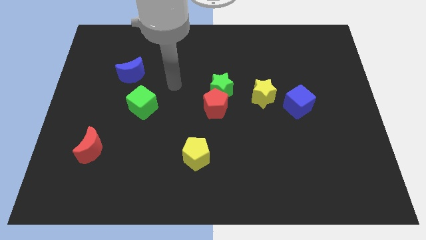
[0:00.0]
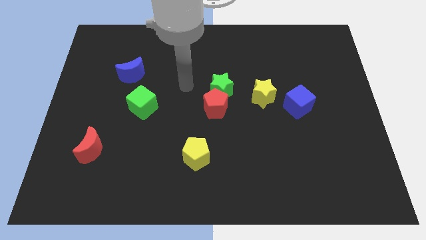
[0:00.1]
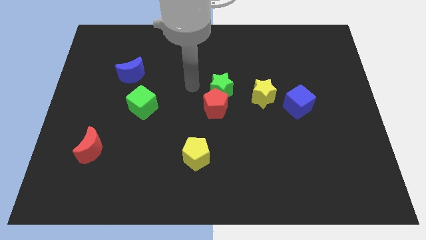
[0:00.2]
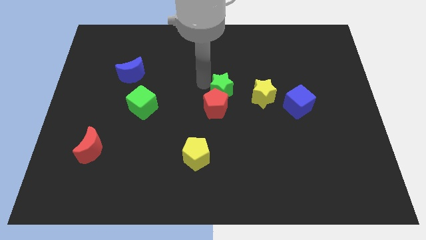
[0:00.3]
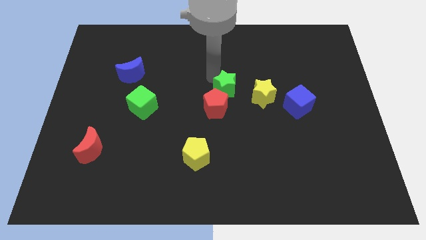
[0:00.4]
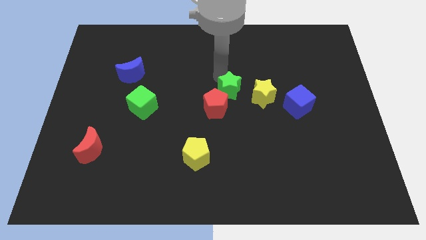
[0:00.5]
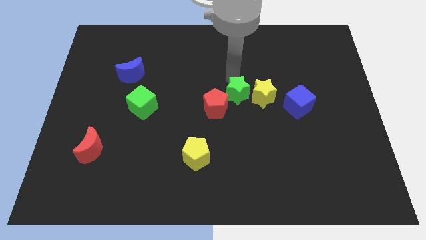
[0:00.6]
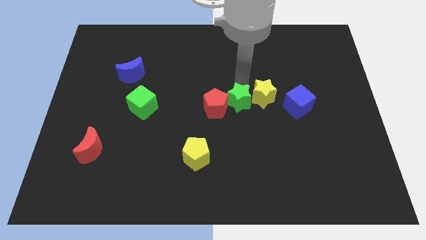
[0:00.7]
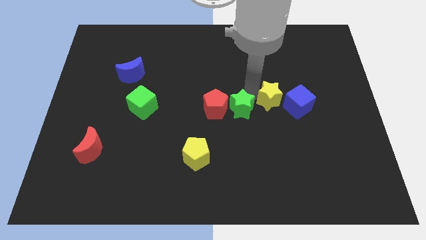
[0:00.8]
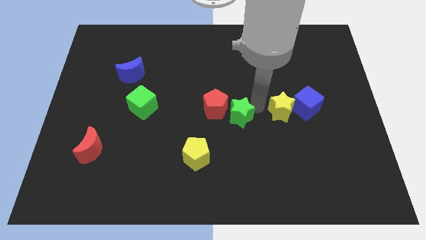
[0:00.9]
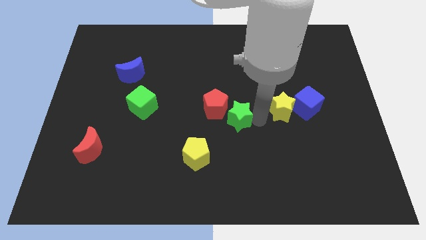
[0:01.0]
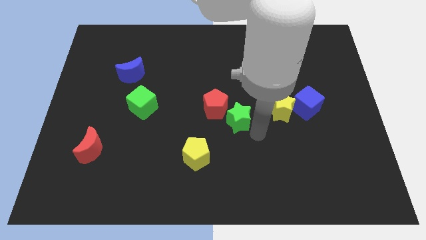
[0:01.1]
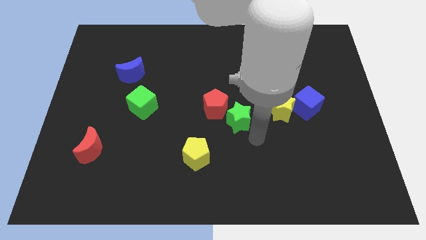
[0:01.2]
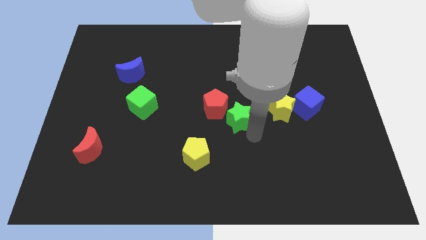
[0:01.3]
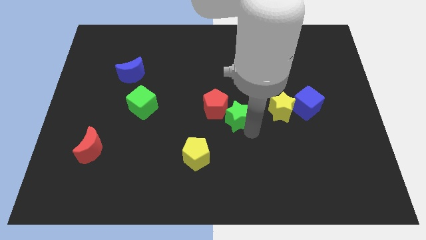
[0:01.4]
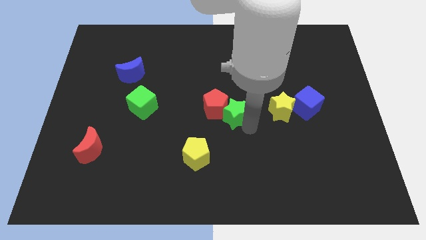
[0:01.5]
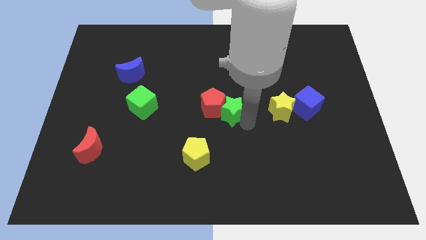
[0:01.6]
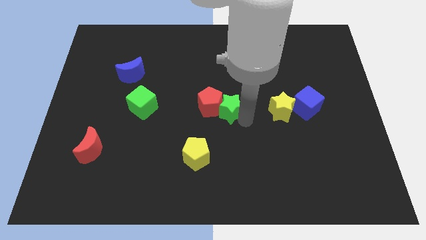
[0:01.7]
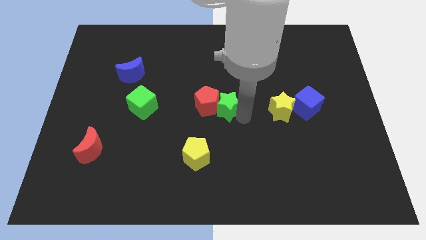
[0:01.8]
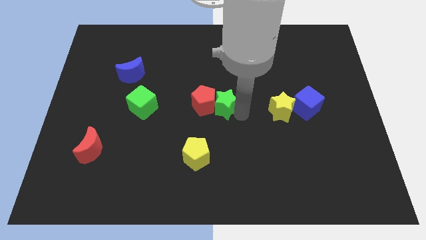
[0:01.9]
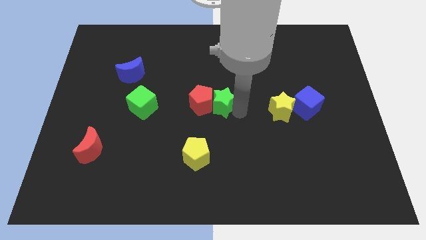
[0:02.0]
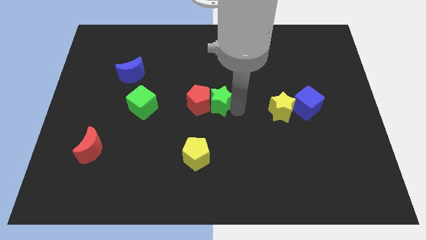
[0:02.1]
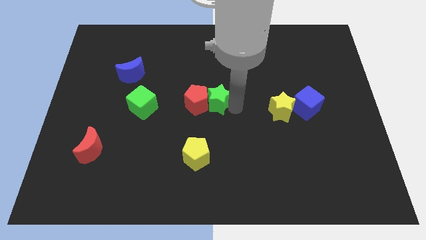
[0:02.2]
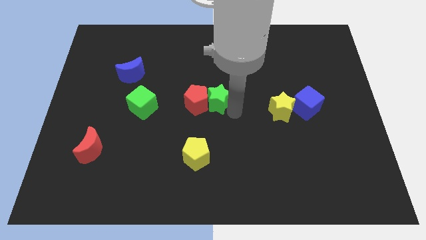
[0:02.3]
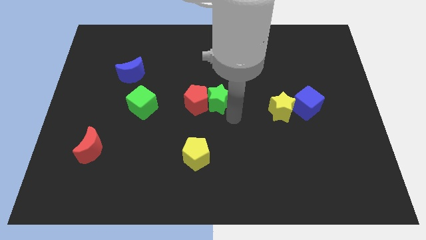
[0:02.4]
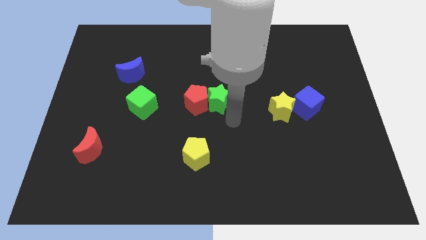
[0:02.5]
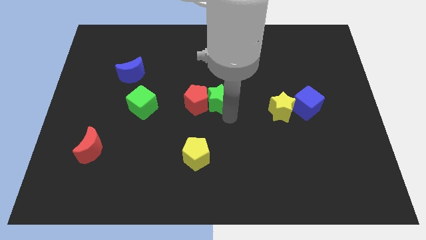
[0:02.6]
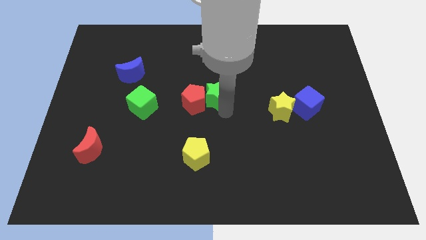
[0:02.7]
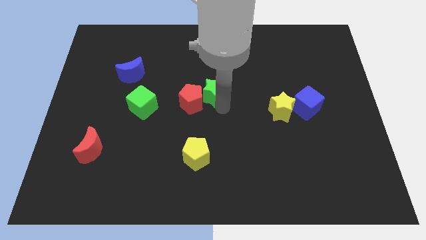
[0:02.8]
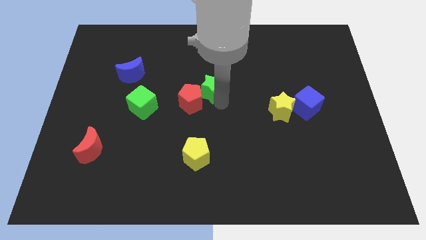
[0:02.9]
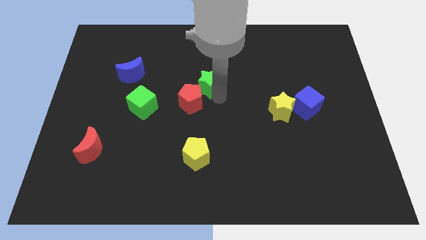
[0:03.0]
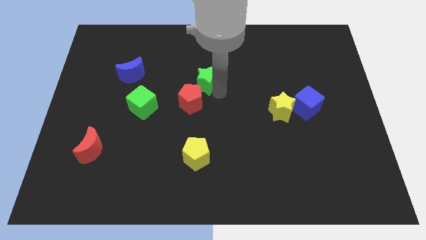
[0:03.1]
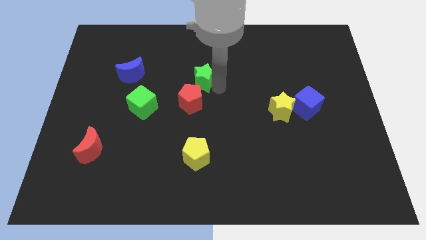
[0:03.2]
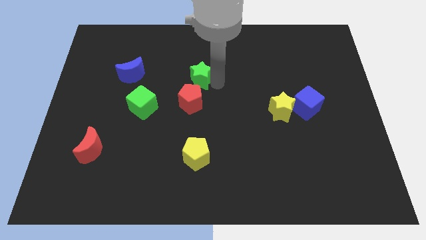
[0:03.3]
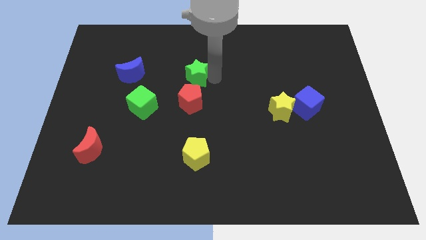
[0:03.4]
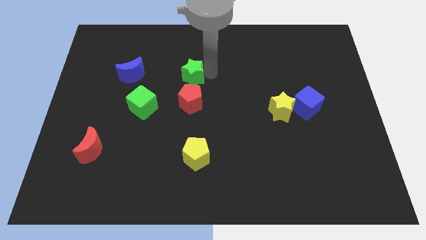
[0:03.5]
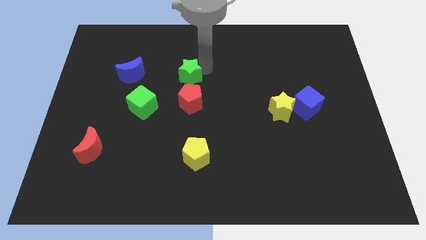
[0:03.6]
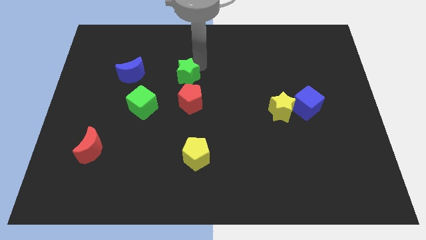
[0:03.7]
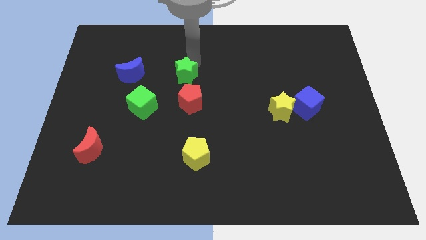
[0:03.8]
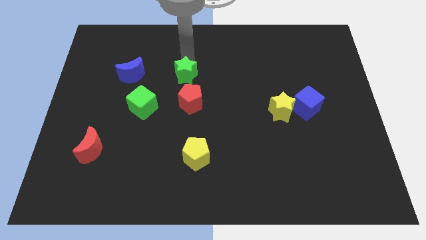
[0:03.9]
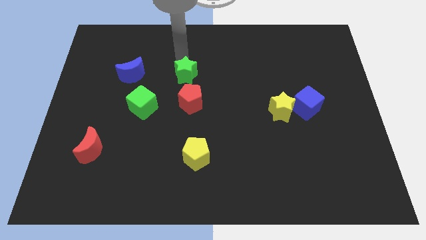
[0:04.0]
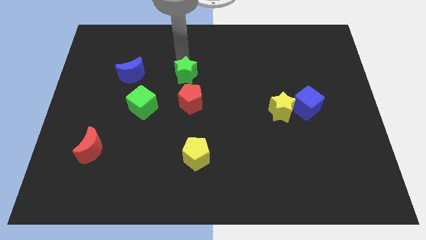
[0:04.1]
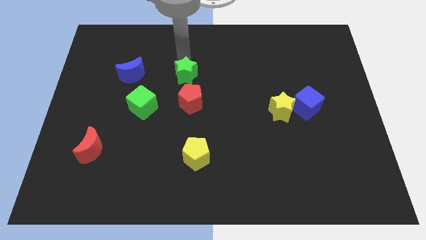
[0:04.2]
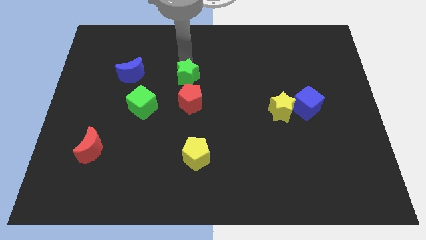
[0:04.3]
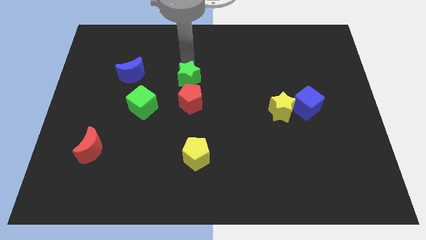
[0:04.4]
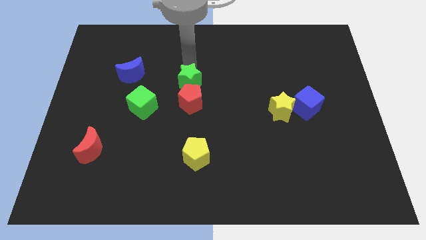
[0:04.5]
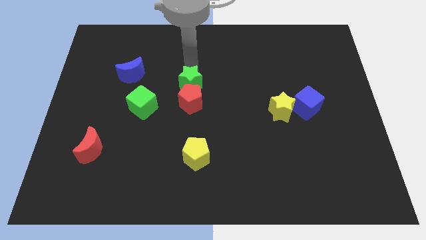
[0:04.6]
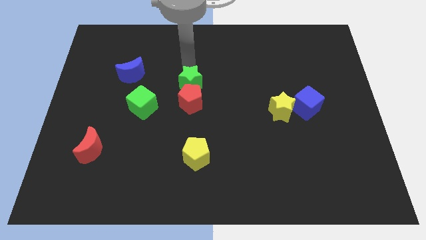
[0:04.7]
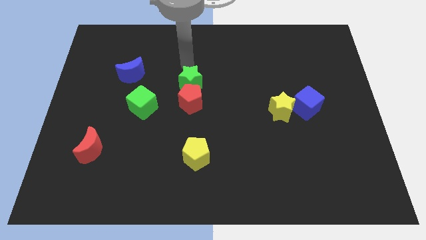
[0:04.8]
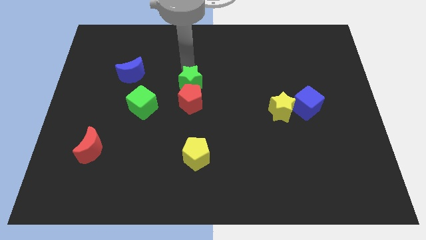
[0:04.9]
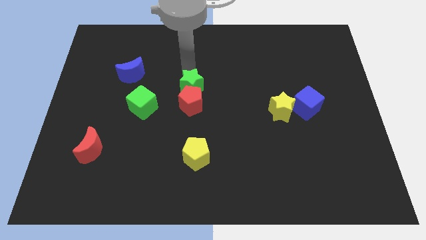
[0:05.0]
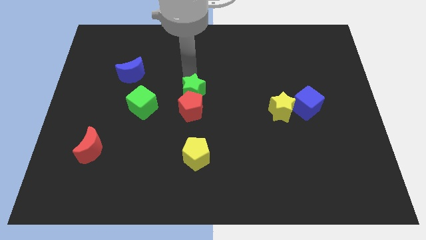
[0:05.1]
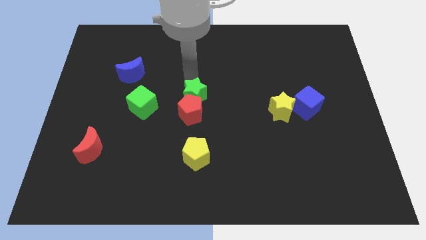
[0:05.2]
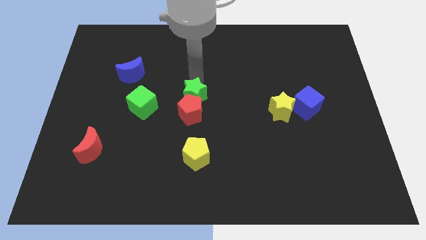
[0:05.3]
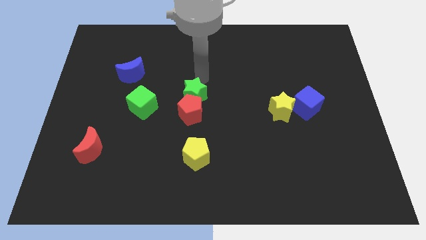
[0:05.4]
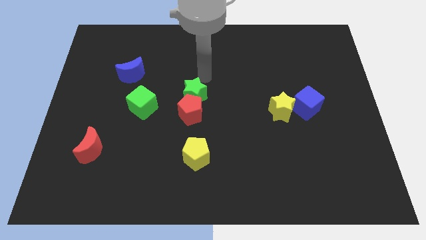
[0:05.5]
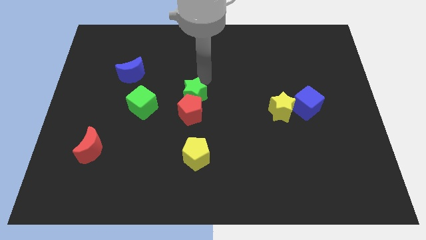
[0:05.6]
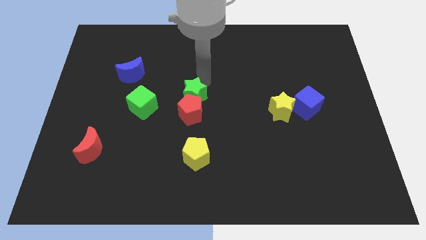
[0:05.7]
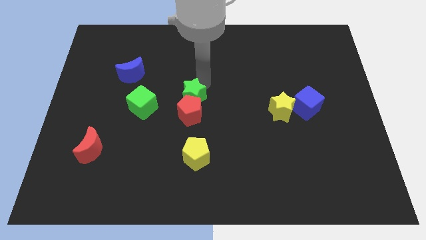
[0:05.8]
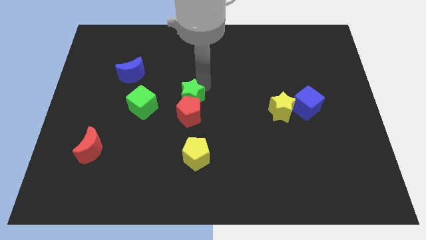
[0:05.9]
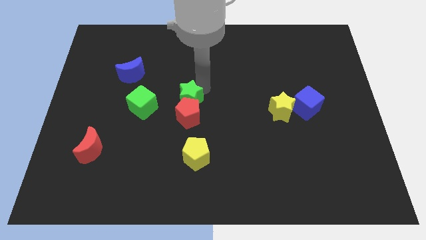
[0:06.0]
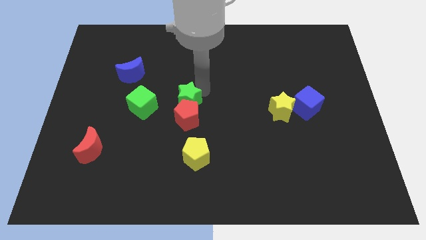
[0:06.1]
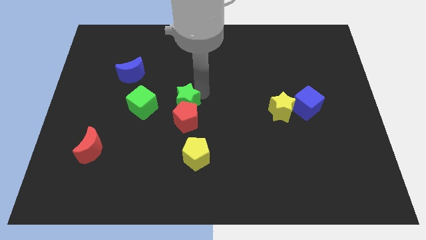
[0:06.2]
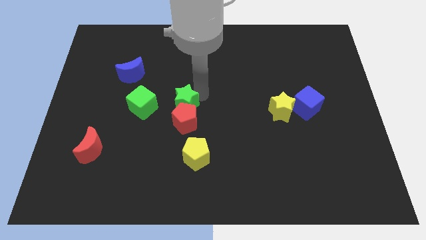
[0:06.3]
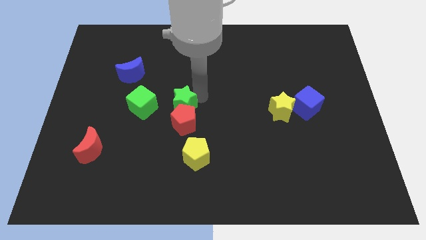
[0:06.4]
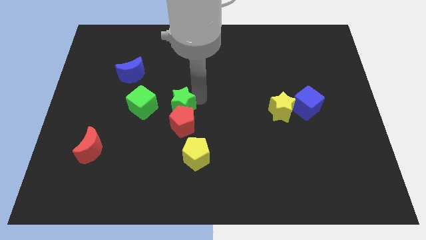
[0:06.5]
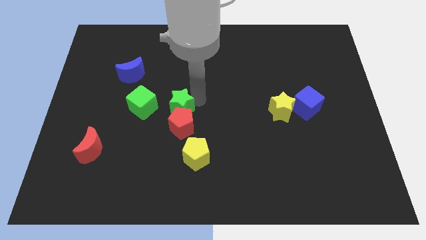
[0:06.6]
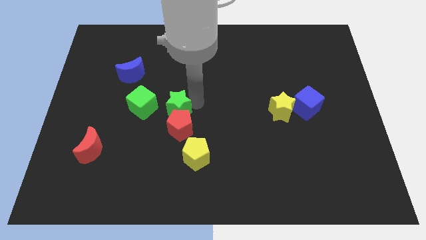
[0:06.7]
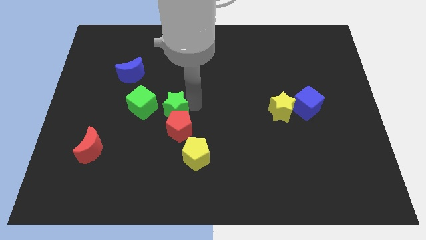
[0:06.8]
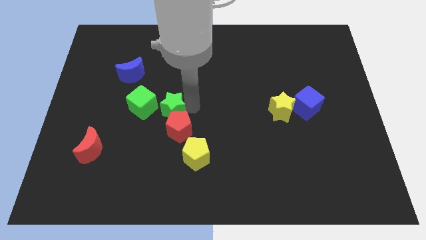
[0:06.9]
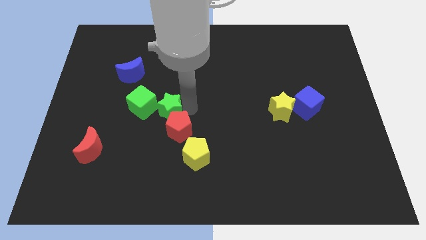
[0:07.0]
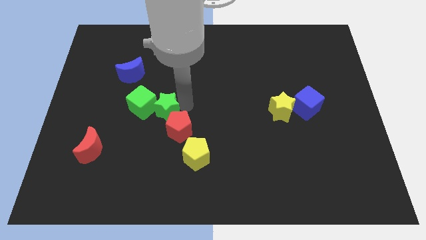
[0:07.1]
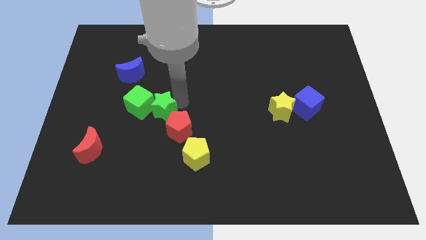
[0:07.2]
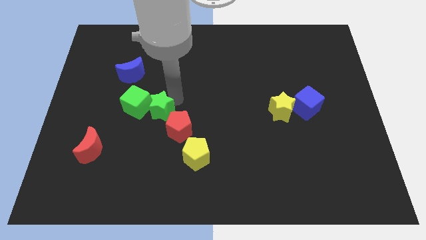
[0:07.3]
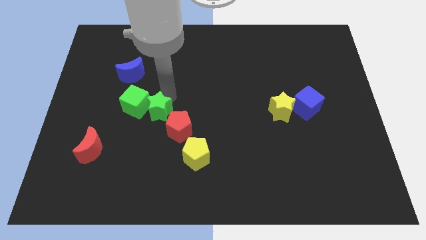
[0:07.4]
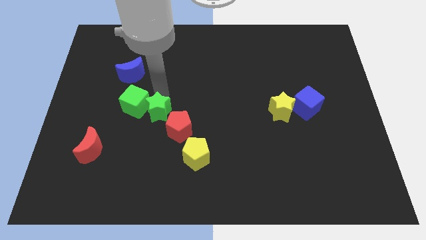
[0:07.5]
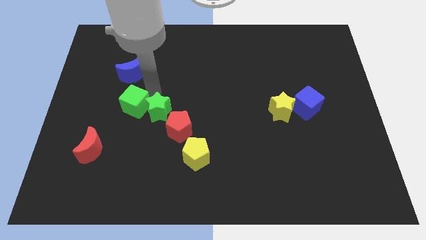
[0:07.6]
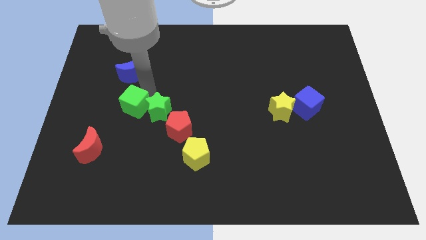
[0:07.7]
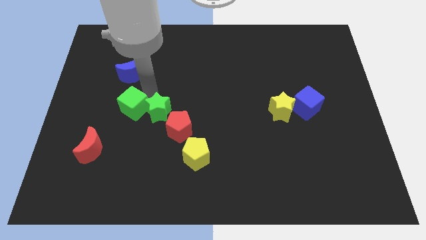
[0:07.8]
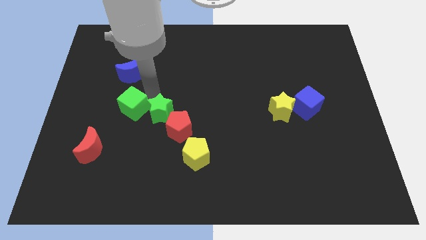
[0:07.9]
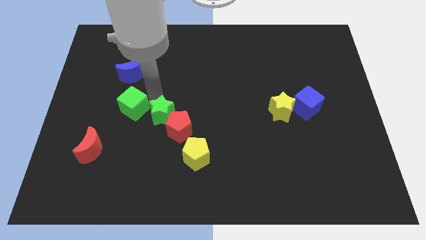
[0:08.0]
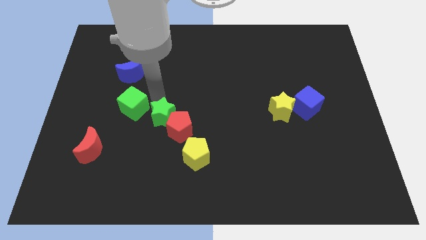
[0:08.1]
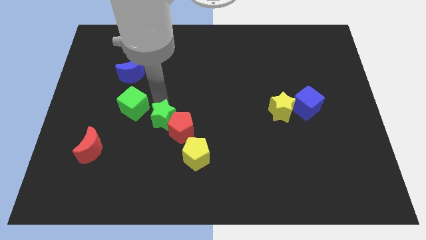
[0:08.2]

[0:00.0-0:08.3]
put the green star to the top left side of the yellow pentagon

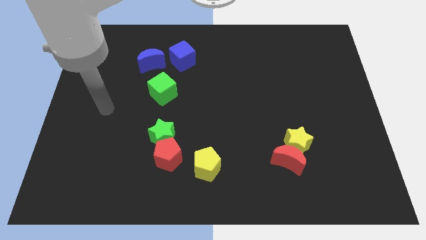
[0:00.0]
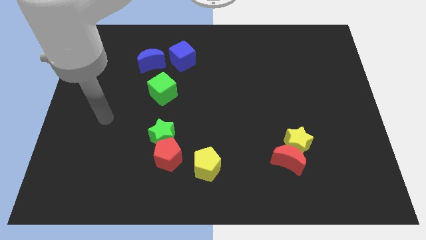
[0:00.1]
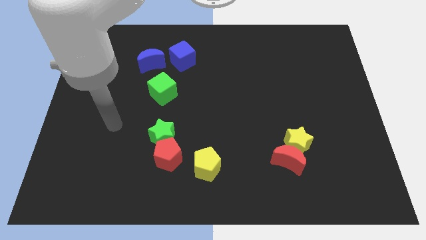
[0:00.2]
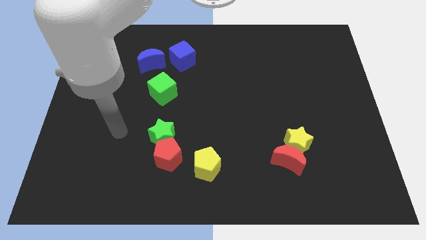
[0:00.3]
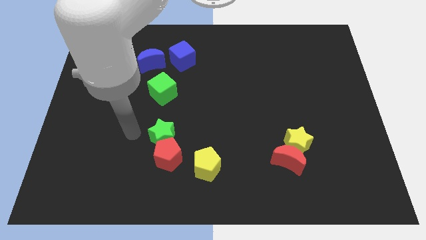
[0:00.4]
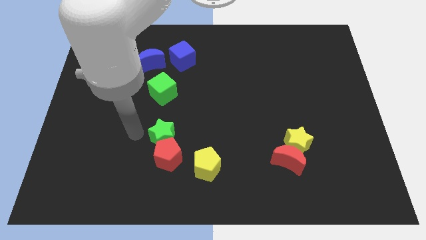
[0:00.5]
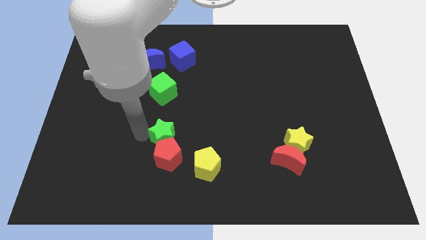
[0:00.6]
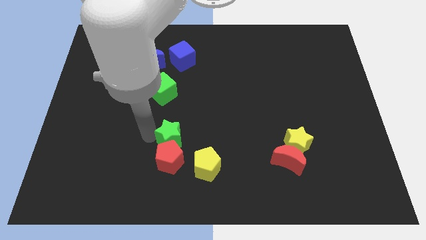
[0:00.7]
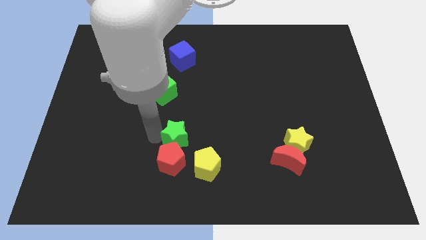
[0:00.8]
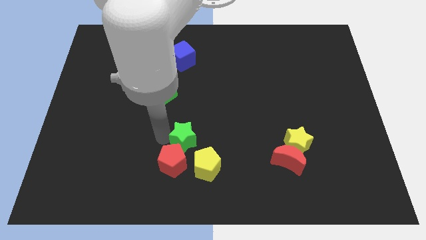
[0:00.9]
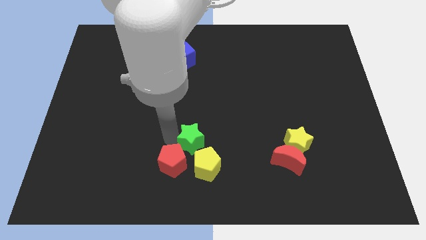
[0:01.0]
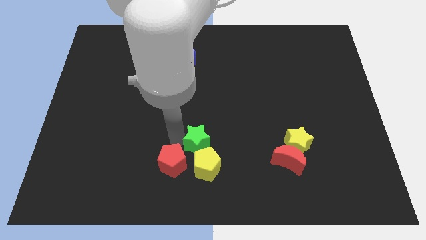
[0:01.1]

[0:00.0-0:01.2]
move the green star just right of the red pentagon
